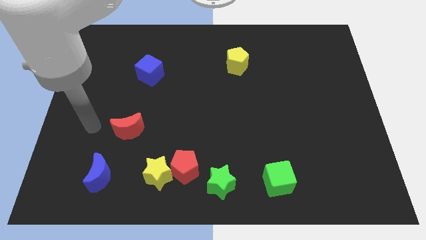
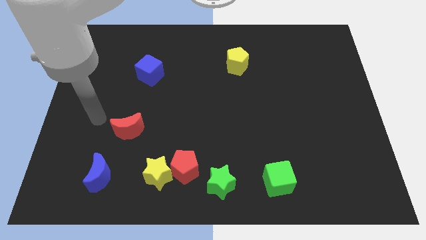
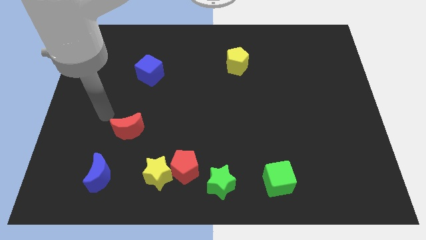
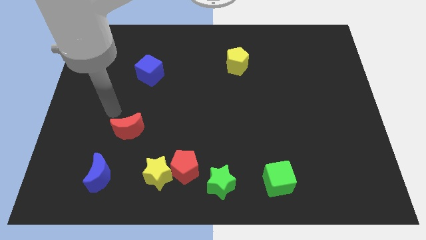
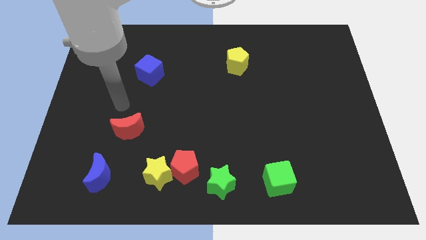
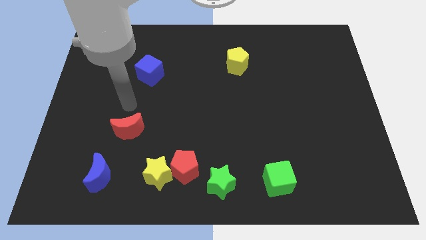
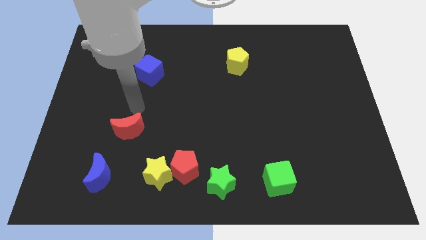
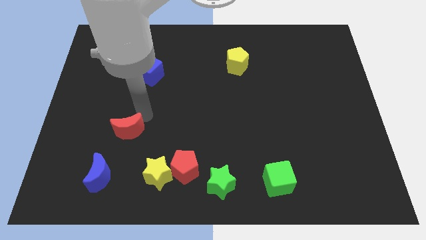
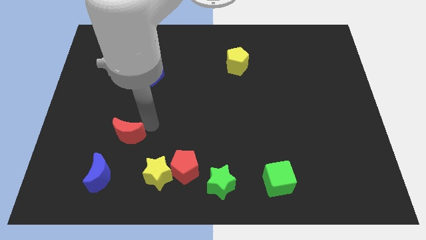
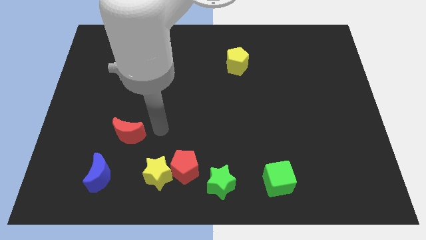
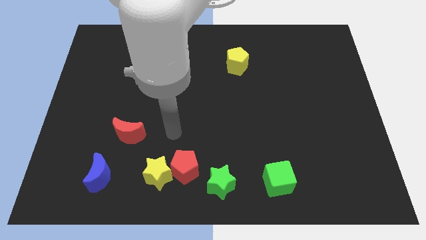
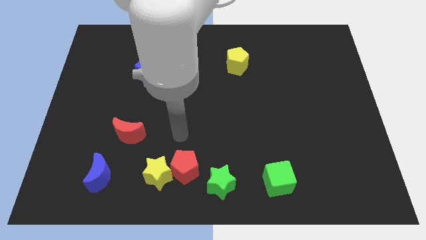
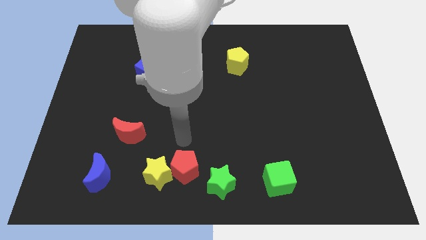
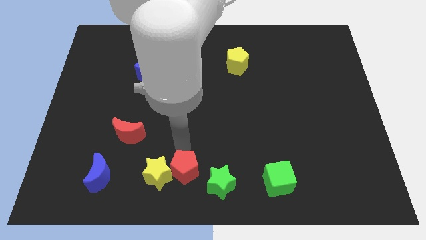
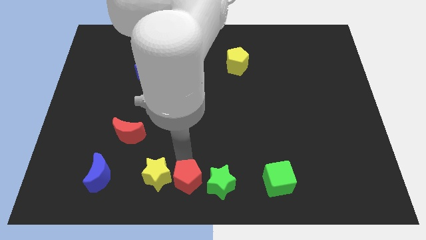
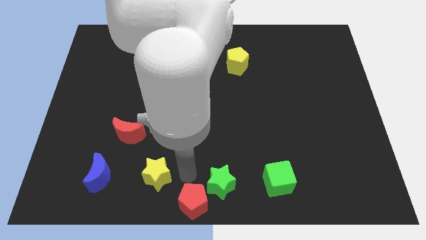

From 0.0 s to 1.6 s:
pull the yellow star apart from the red pentagon

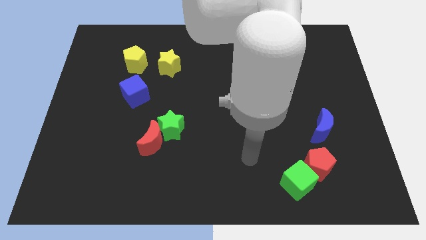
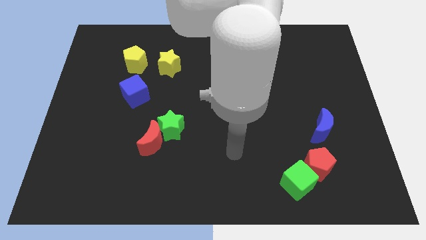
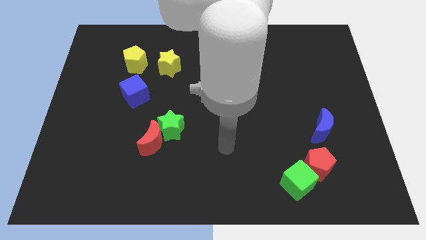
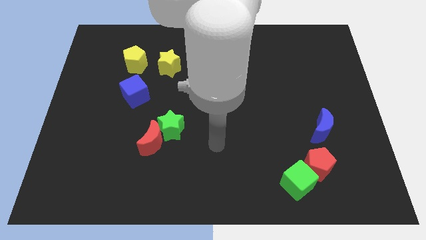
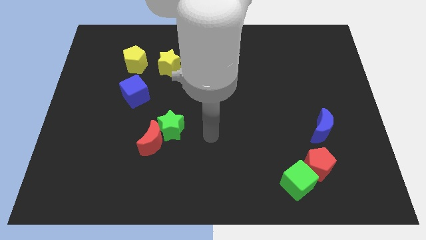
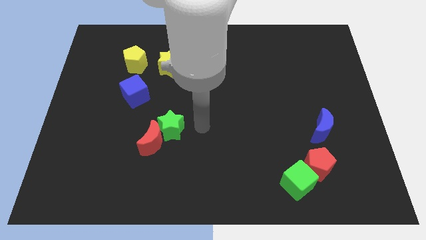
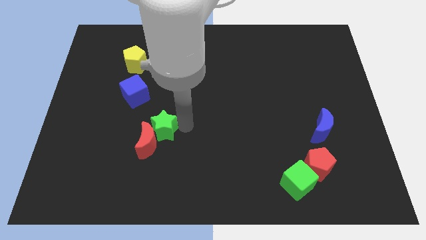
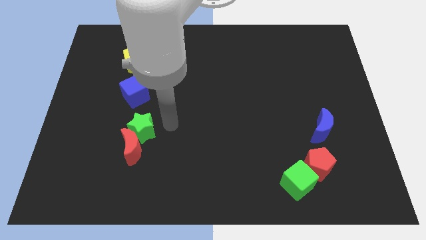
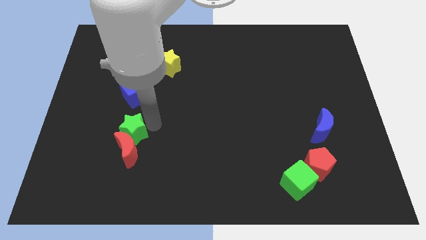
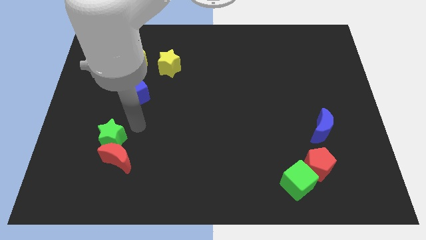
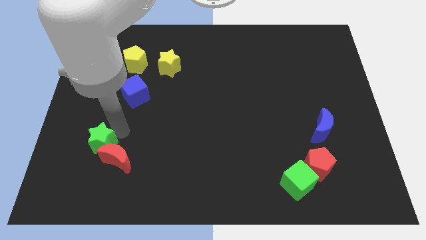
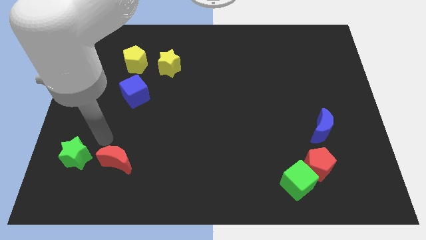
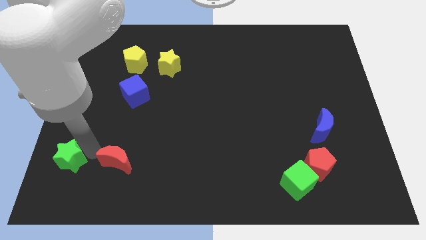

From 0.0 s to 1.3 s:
pull the red moon apart from the green star

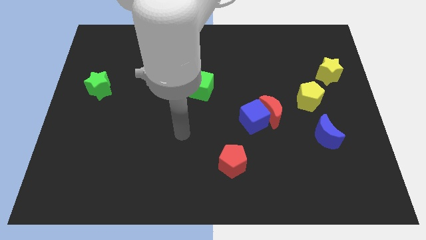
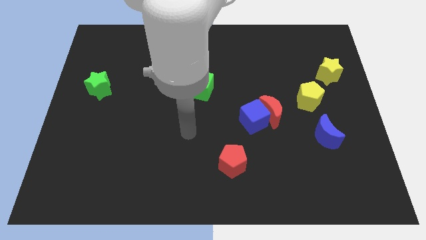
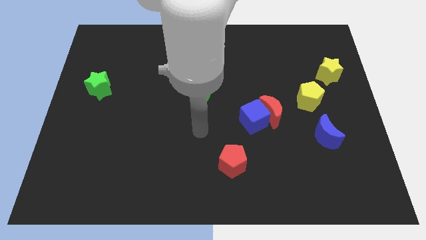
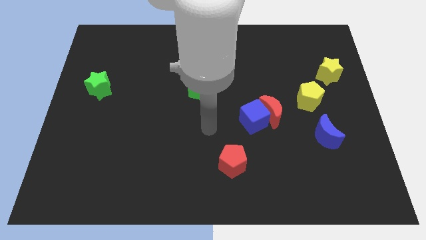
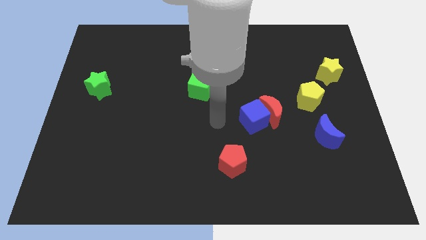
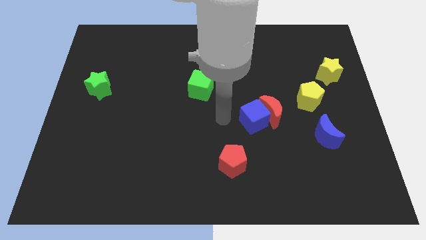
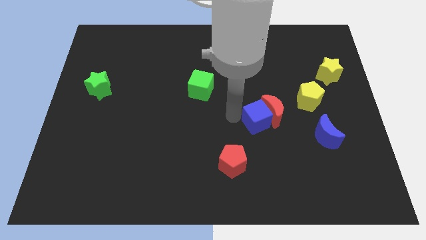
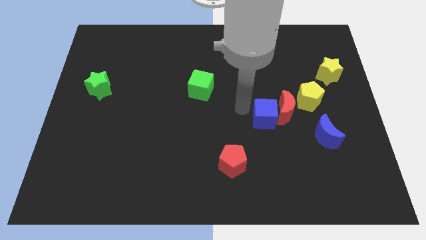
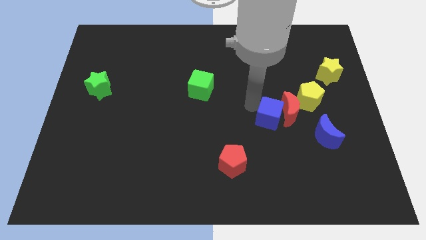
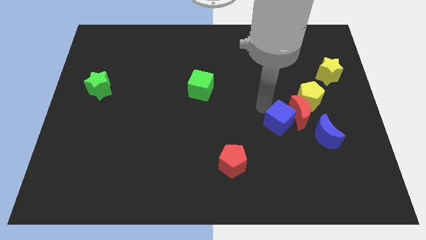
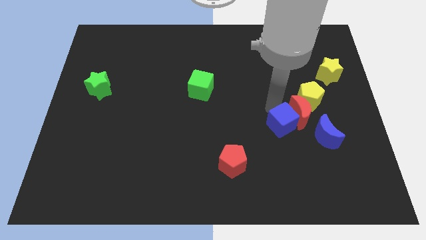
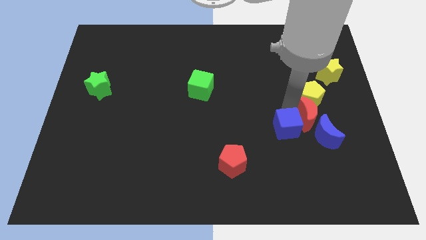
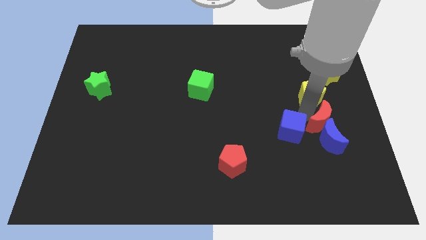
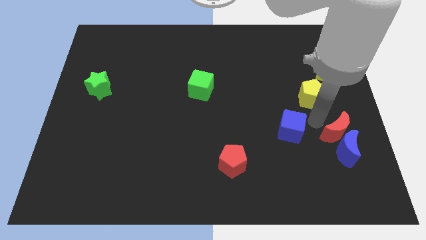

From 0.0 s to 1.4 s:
move the blue cube away from the red moon

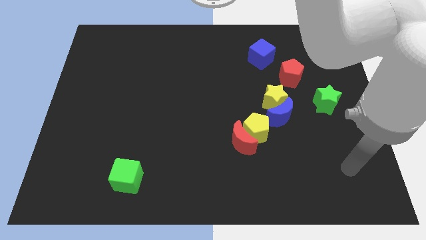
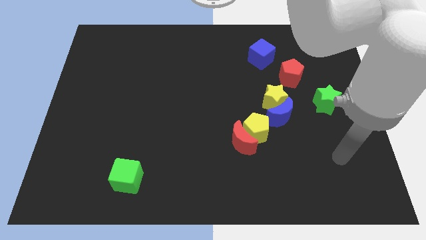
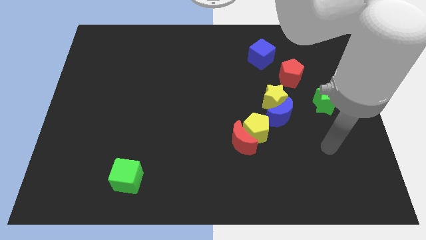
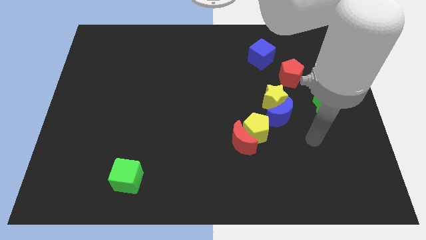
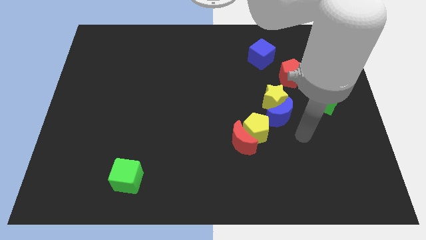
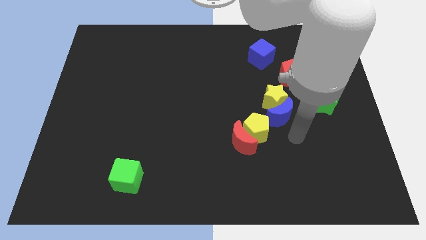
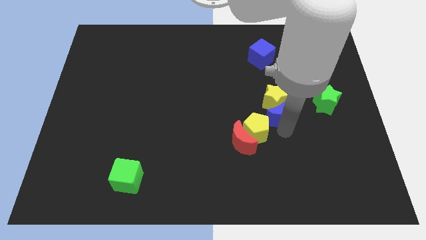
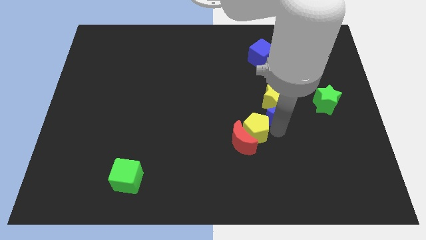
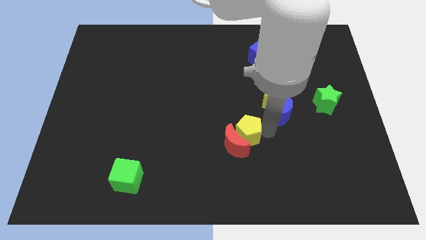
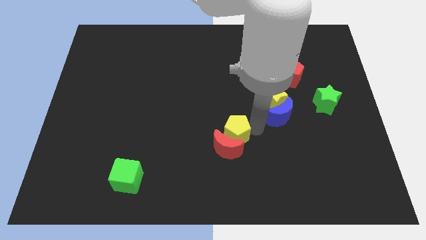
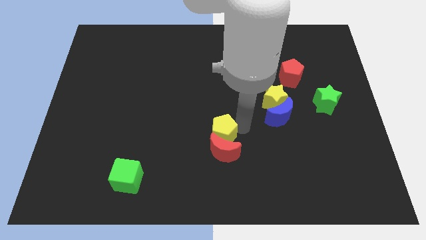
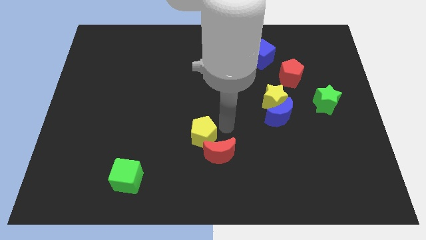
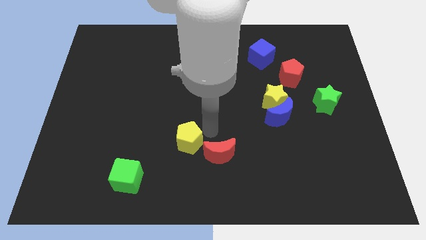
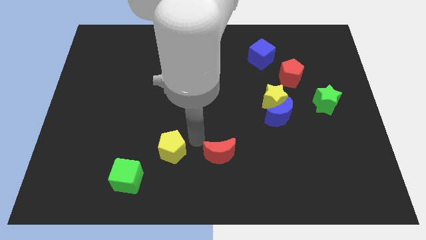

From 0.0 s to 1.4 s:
pull the red moon apart from the yellow pentagon

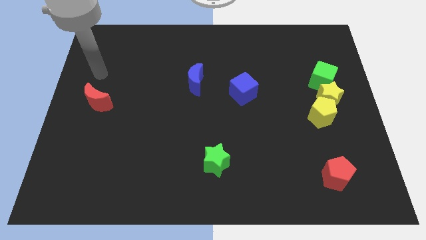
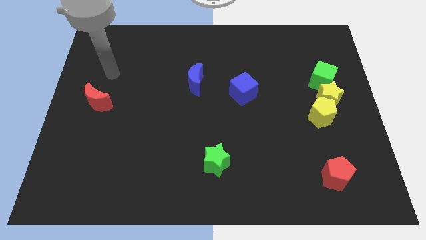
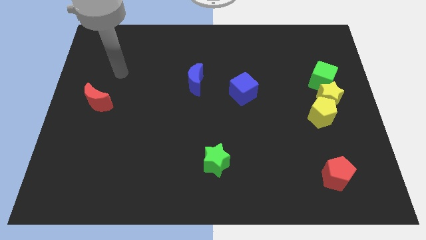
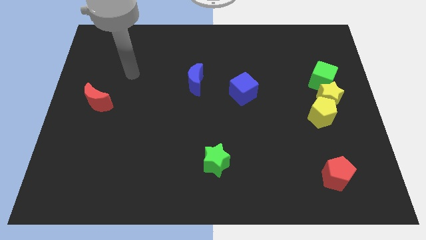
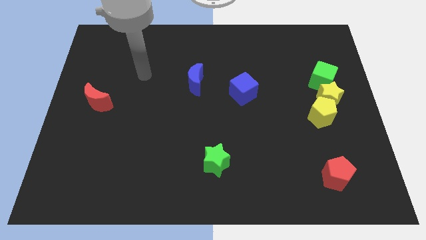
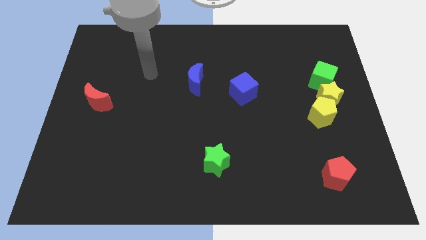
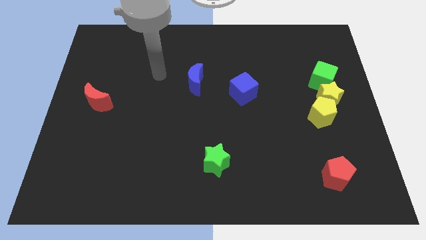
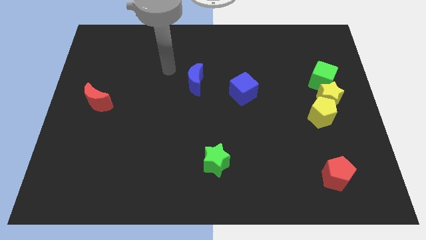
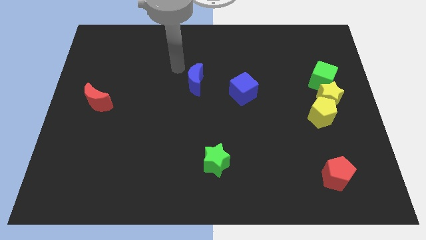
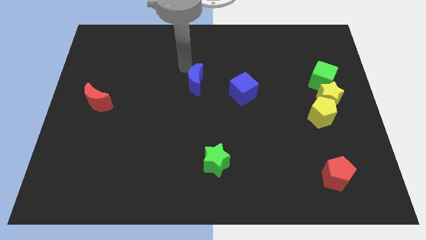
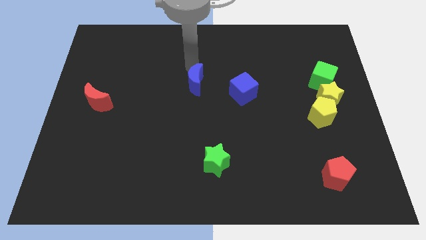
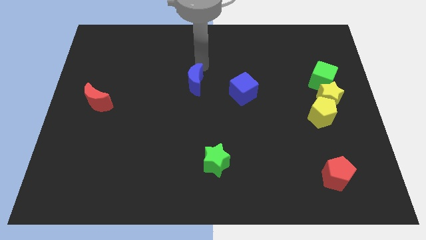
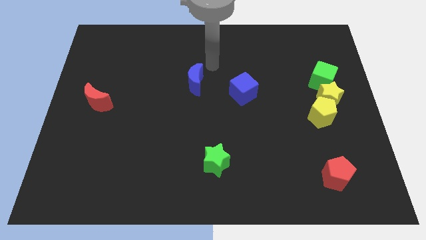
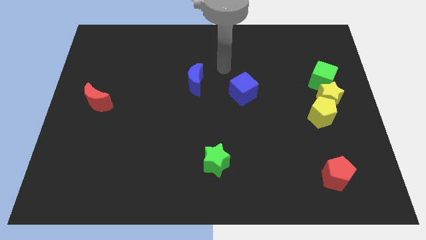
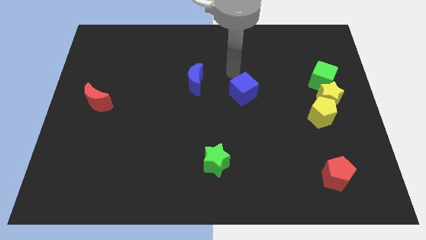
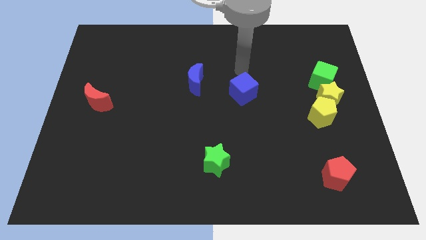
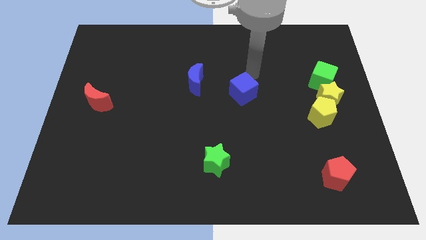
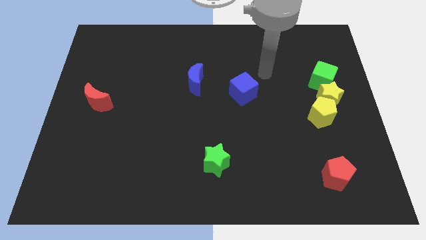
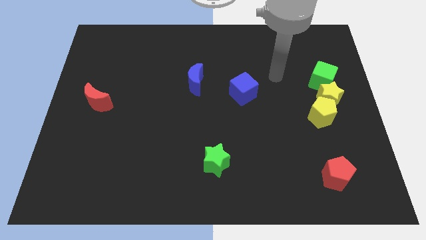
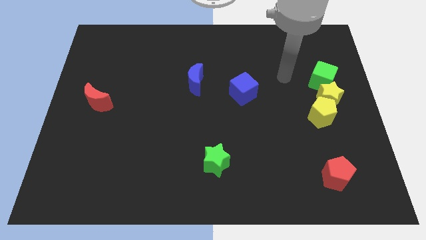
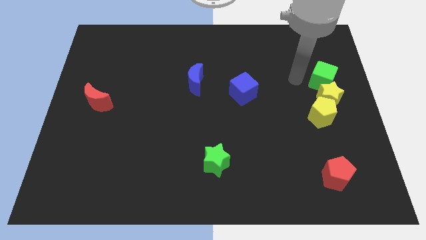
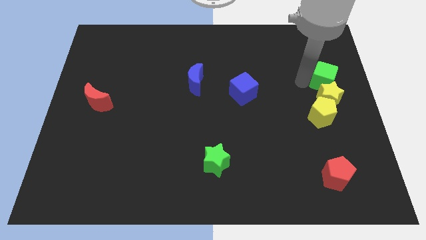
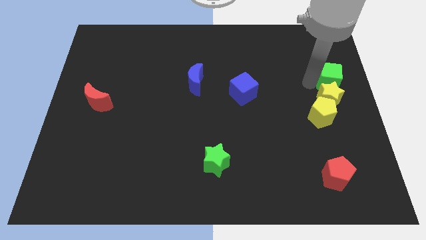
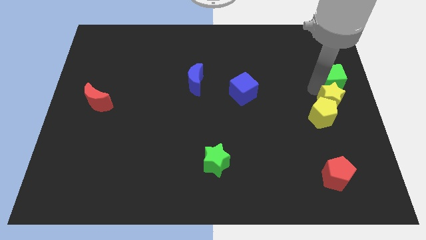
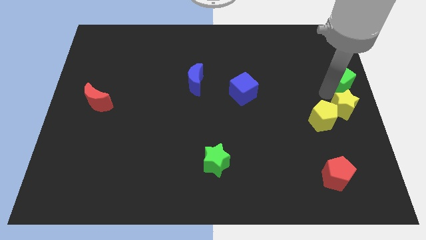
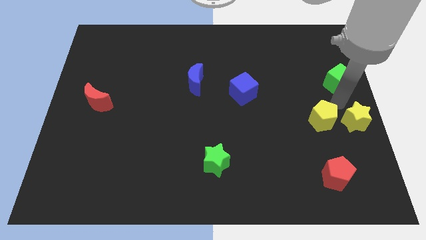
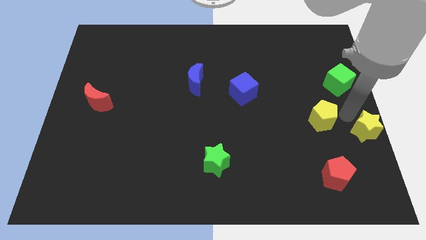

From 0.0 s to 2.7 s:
move the yellow pentagon away from the yellow star

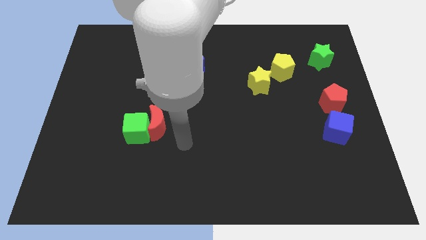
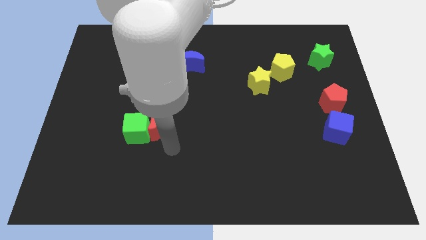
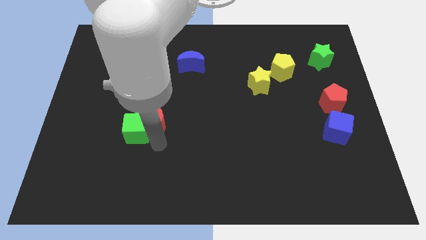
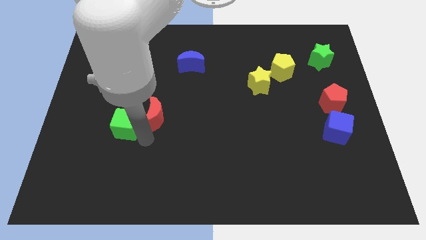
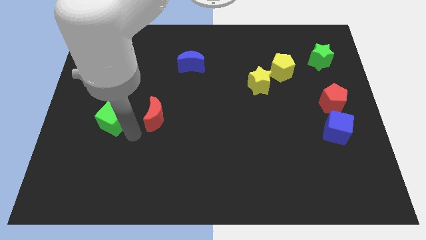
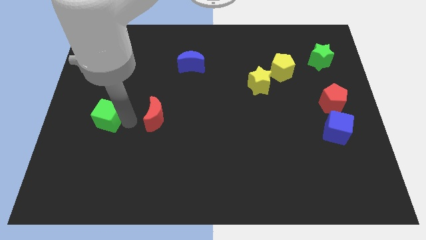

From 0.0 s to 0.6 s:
pull the red moon apart from the green cube

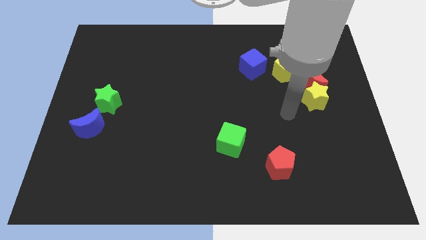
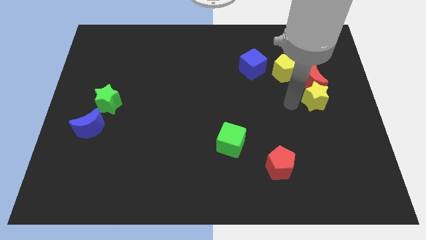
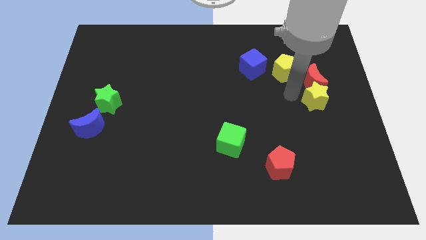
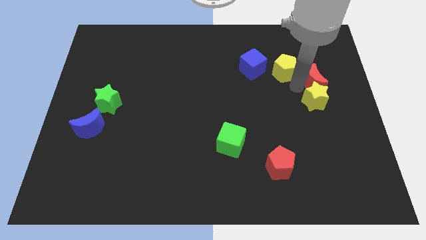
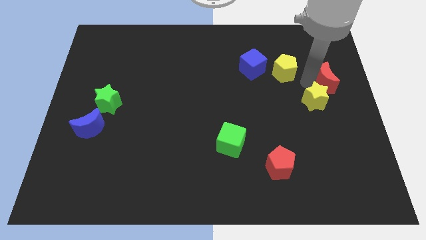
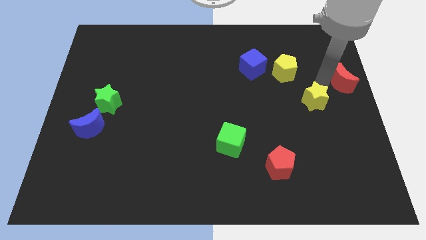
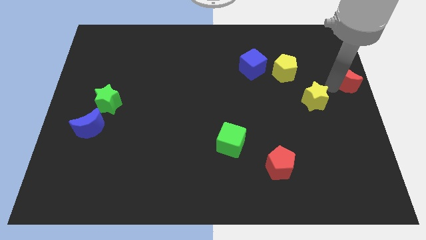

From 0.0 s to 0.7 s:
separate the yellow star from the red moon
